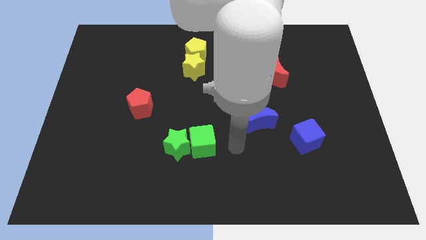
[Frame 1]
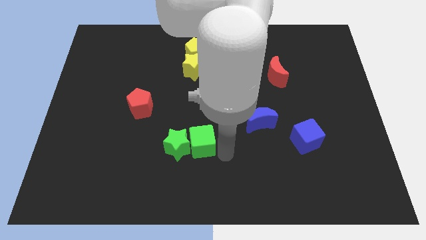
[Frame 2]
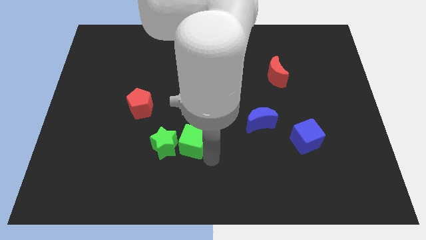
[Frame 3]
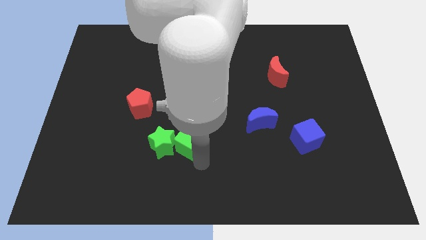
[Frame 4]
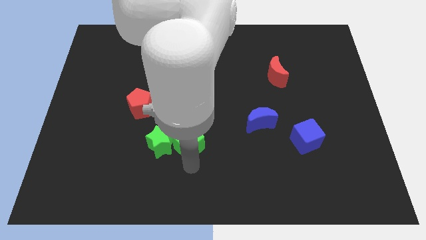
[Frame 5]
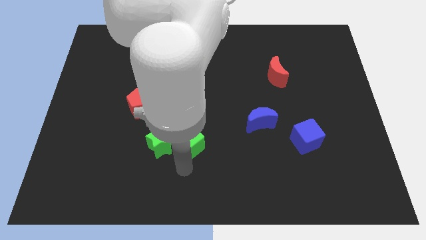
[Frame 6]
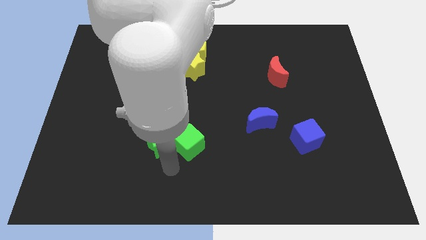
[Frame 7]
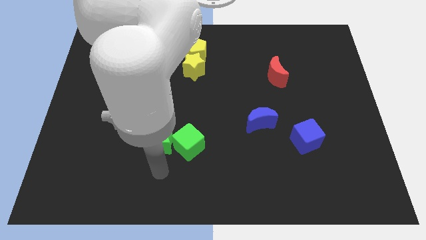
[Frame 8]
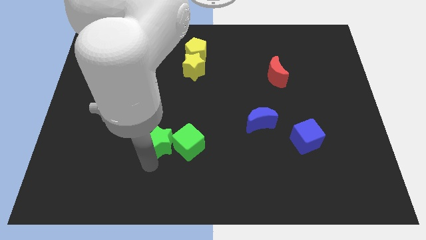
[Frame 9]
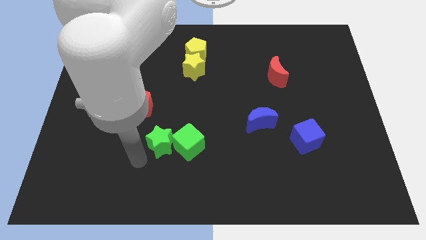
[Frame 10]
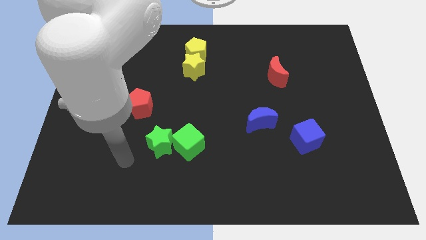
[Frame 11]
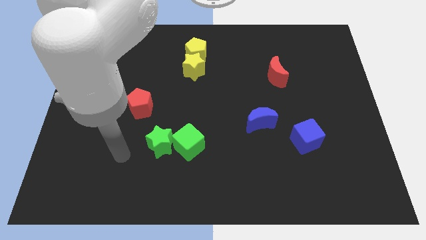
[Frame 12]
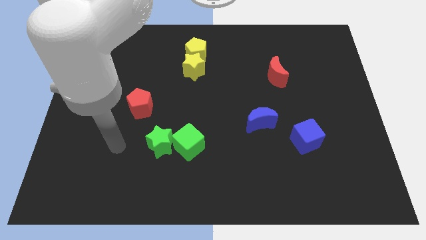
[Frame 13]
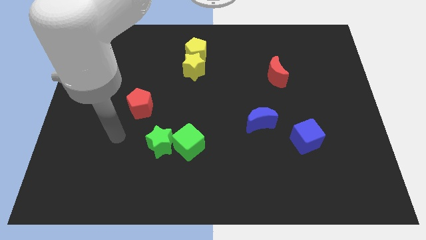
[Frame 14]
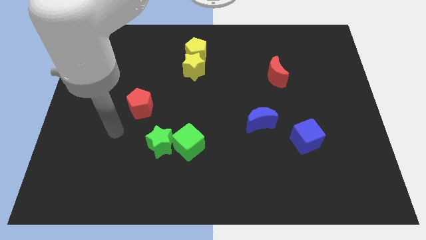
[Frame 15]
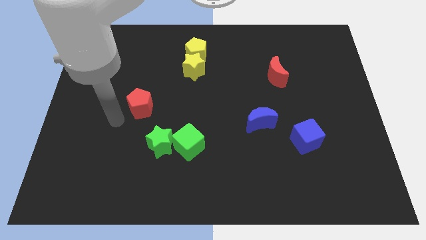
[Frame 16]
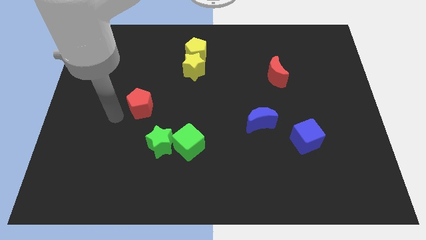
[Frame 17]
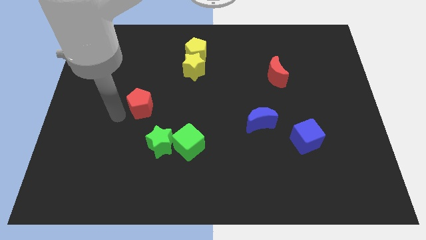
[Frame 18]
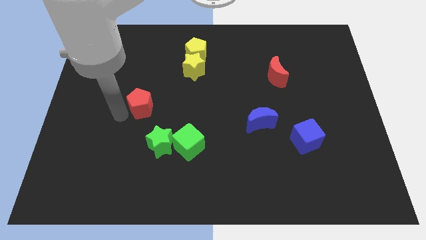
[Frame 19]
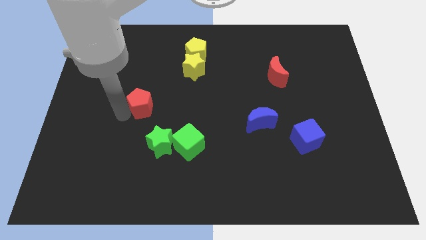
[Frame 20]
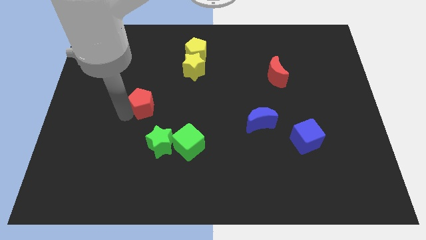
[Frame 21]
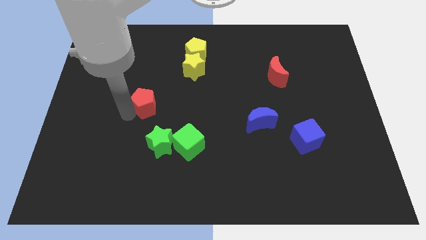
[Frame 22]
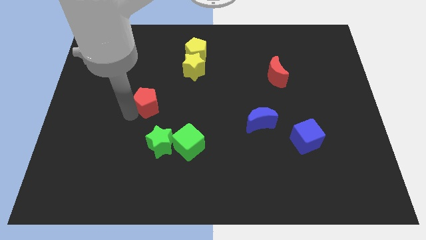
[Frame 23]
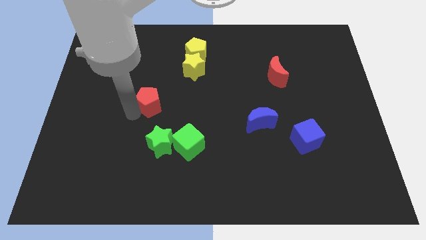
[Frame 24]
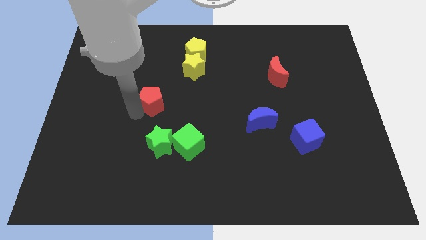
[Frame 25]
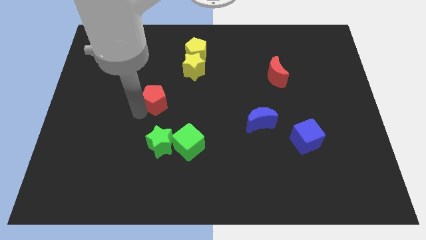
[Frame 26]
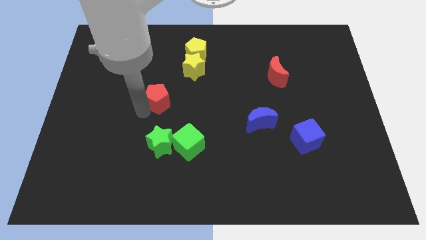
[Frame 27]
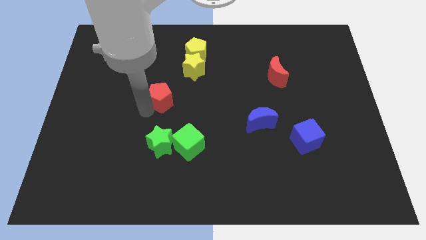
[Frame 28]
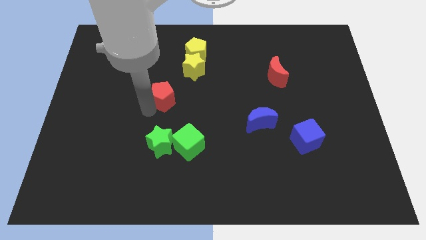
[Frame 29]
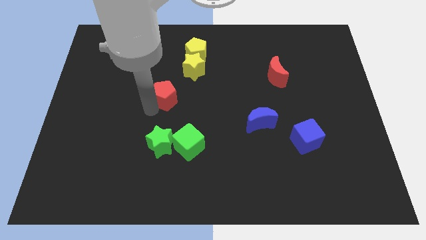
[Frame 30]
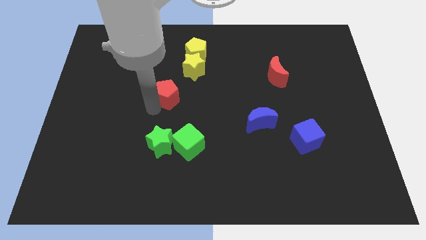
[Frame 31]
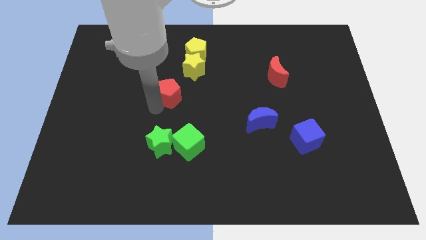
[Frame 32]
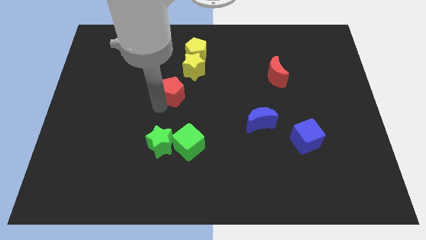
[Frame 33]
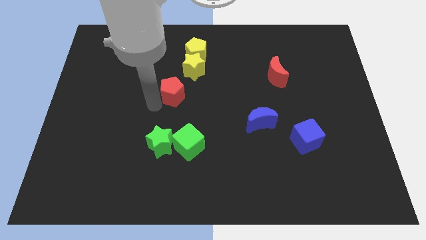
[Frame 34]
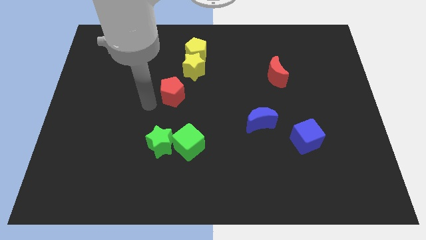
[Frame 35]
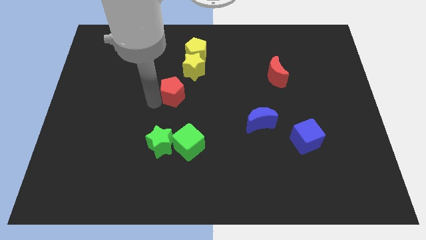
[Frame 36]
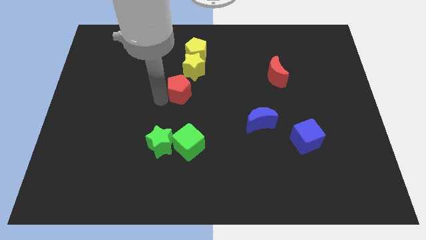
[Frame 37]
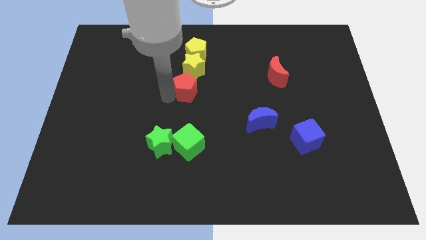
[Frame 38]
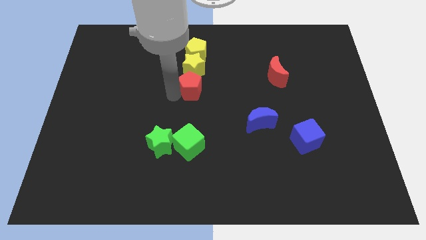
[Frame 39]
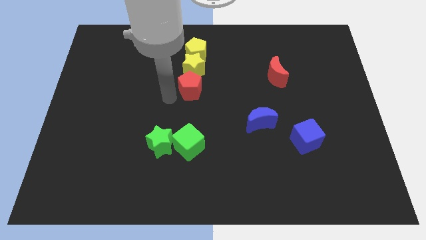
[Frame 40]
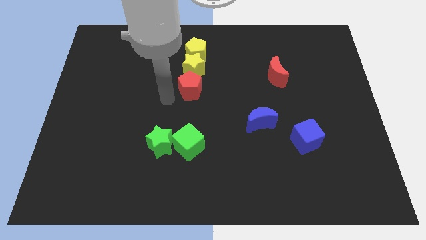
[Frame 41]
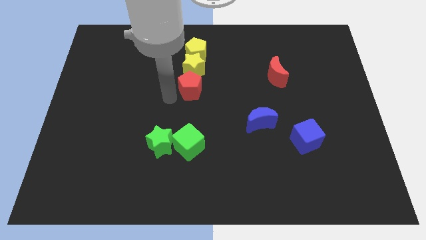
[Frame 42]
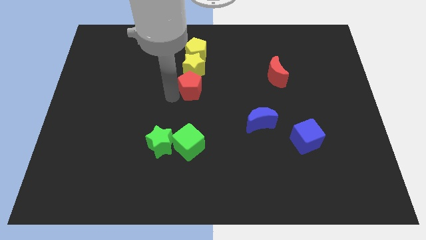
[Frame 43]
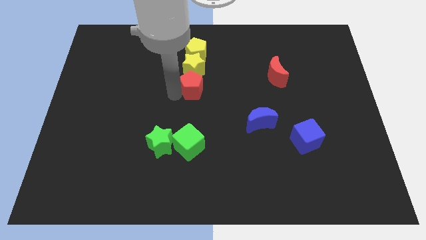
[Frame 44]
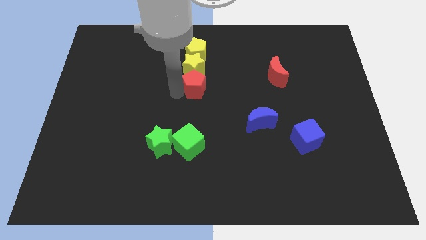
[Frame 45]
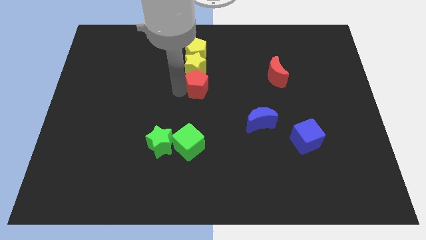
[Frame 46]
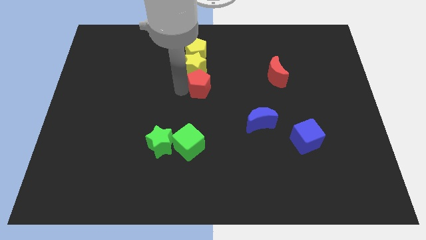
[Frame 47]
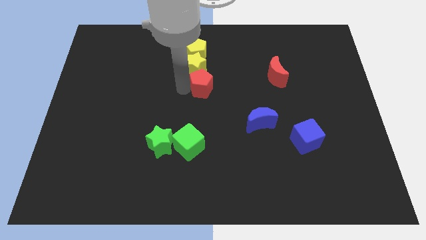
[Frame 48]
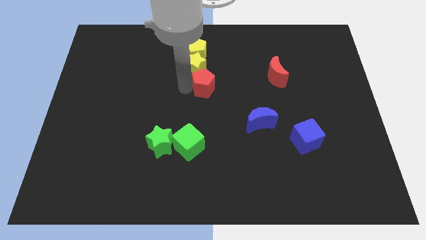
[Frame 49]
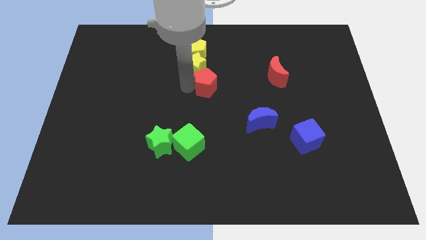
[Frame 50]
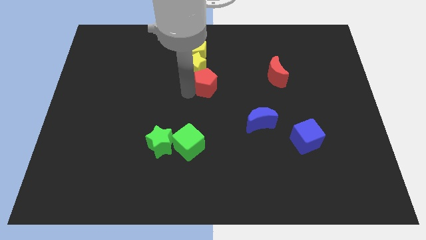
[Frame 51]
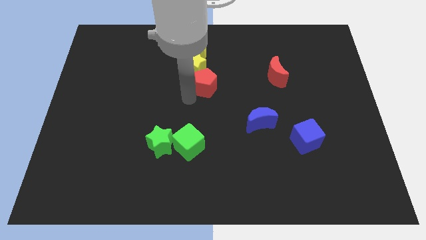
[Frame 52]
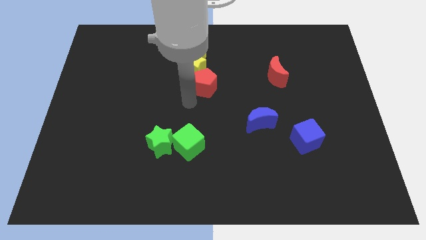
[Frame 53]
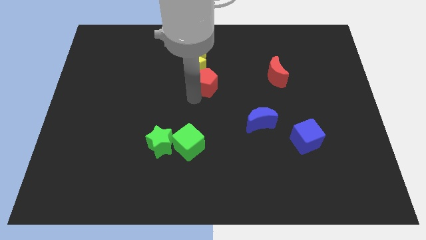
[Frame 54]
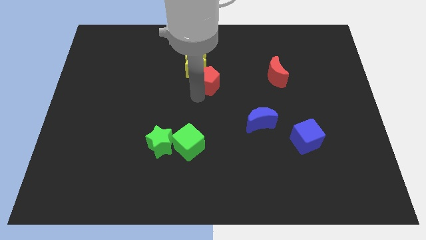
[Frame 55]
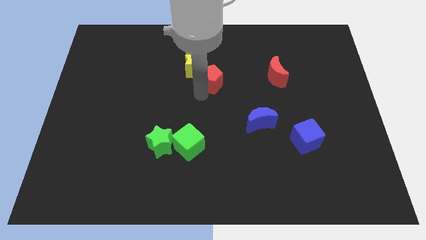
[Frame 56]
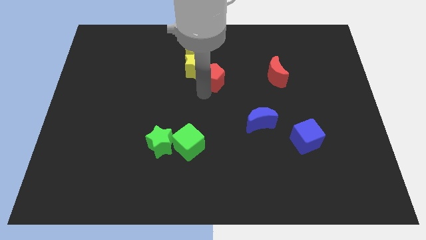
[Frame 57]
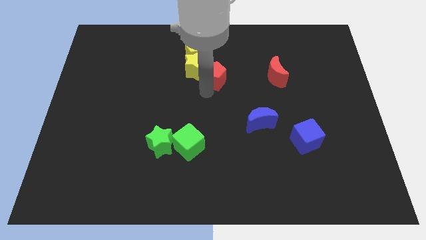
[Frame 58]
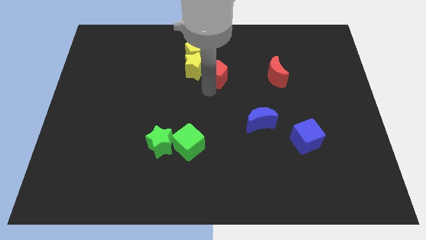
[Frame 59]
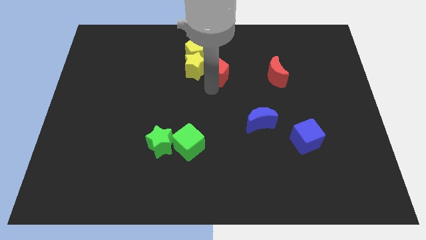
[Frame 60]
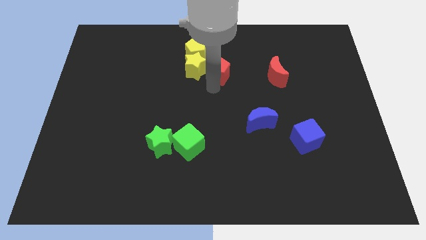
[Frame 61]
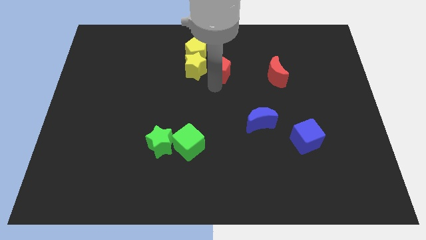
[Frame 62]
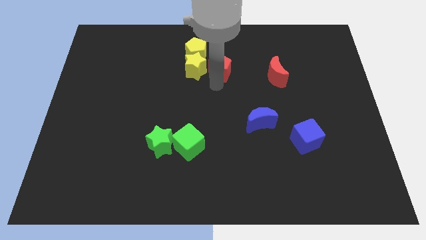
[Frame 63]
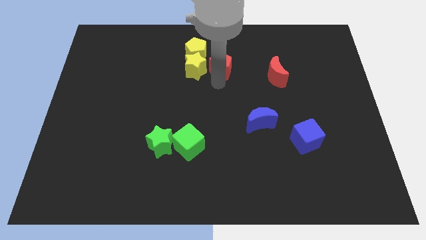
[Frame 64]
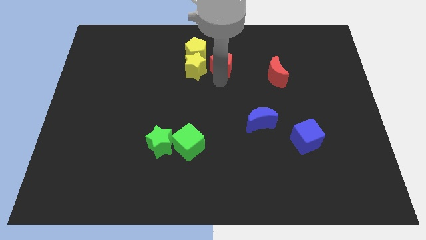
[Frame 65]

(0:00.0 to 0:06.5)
move the red pentagon just right of the yellow pentagon
